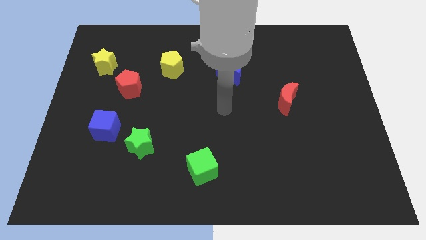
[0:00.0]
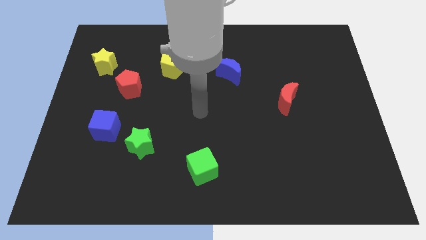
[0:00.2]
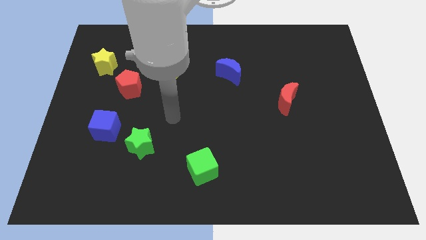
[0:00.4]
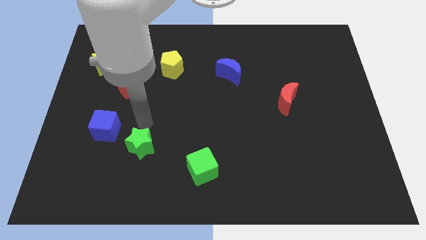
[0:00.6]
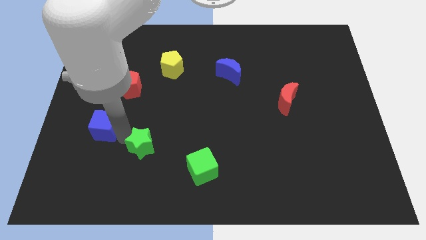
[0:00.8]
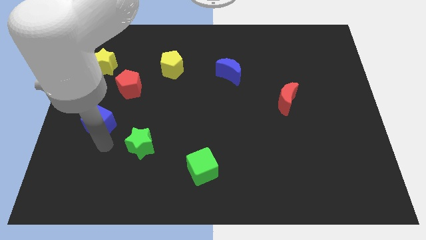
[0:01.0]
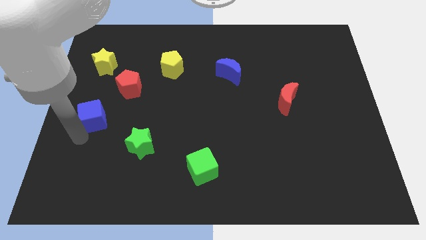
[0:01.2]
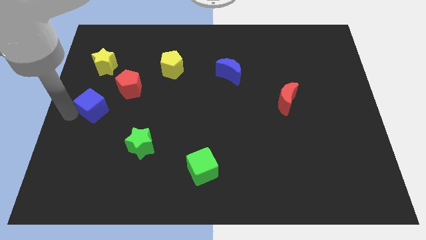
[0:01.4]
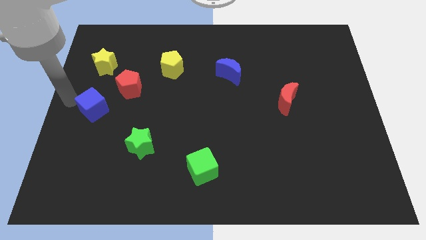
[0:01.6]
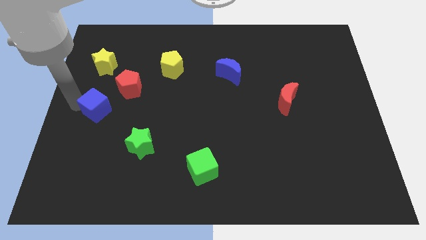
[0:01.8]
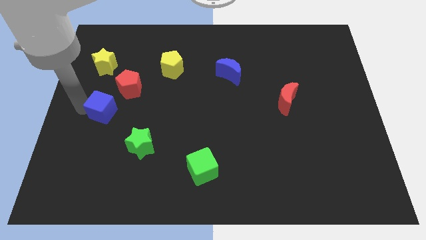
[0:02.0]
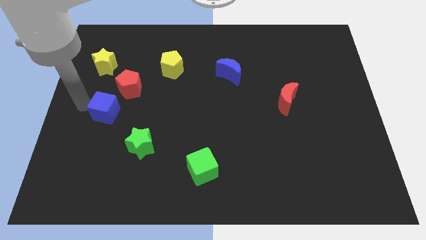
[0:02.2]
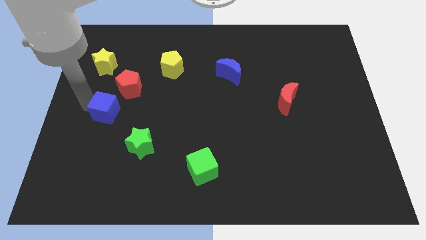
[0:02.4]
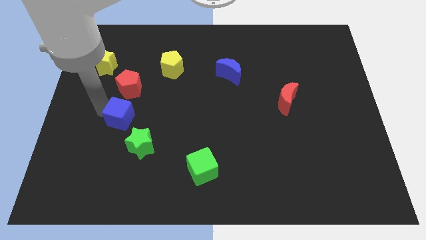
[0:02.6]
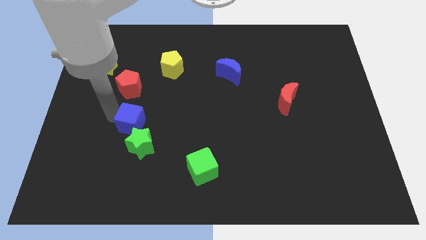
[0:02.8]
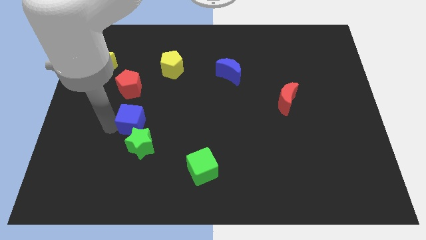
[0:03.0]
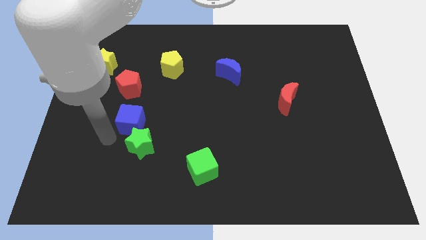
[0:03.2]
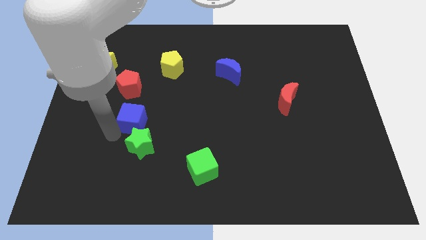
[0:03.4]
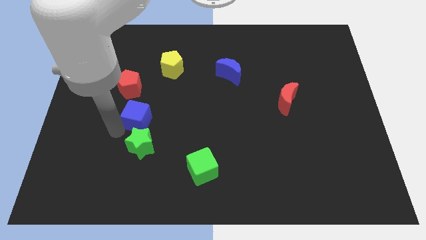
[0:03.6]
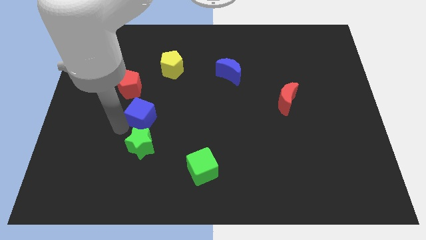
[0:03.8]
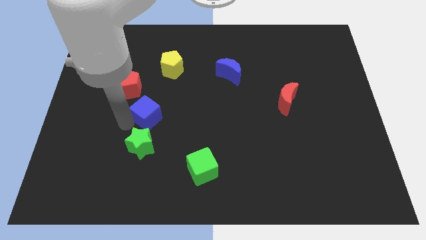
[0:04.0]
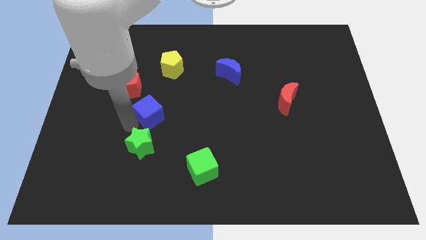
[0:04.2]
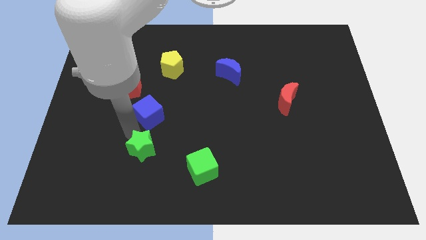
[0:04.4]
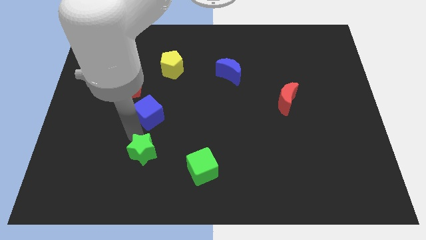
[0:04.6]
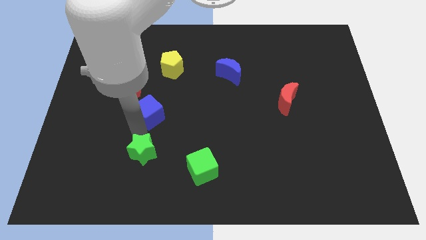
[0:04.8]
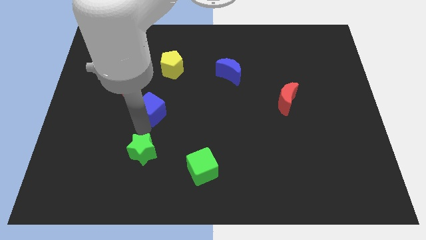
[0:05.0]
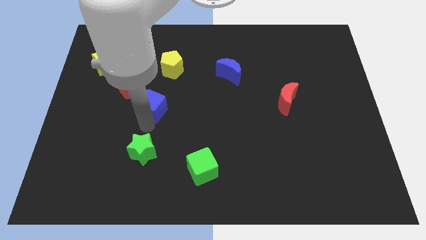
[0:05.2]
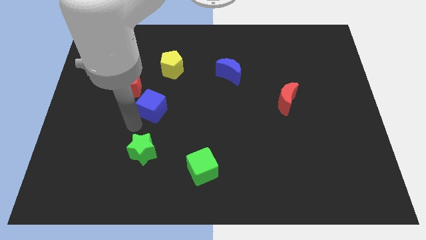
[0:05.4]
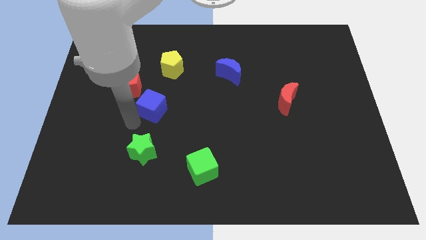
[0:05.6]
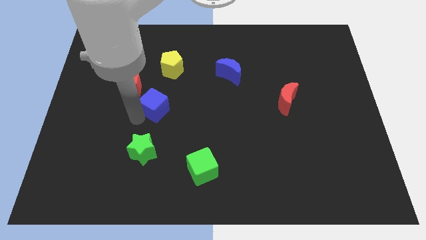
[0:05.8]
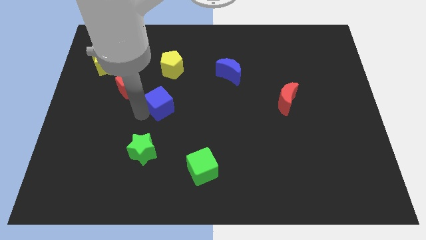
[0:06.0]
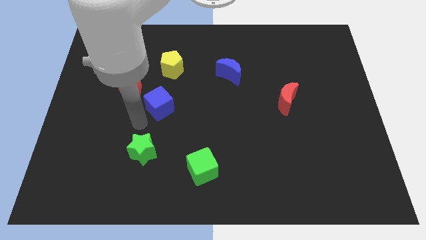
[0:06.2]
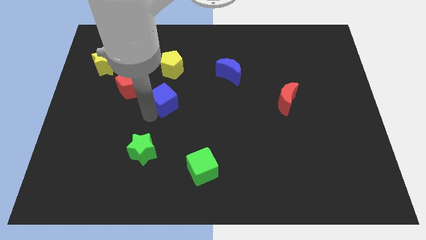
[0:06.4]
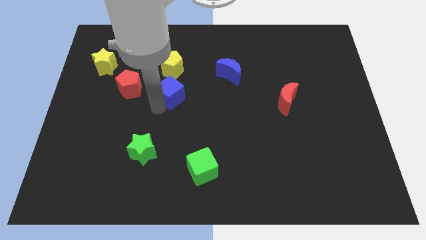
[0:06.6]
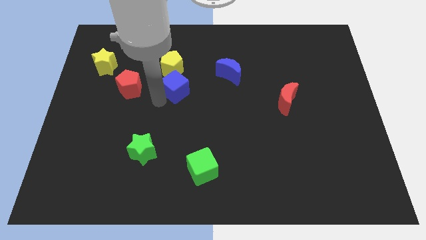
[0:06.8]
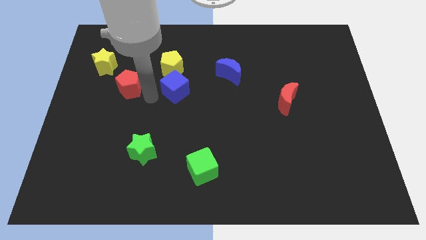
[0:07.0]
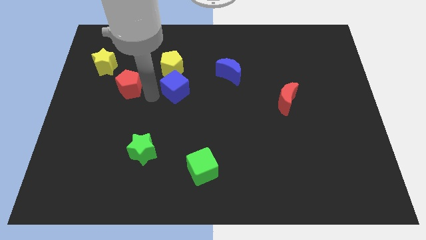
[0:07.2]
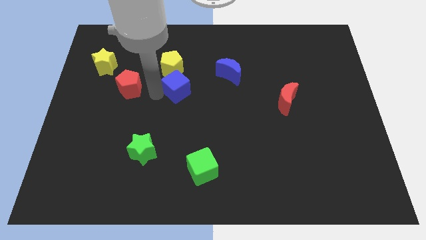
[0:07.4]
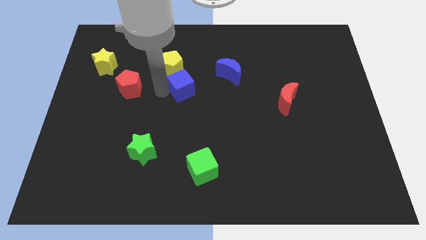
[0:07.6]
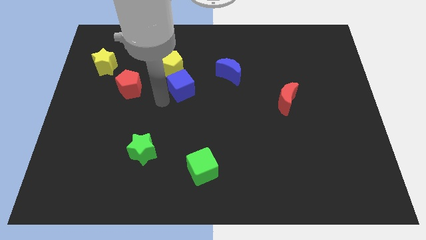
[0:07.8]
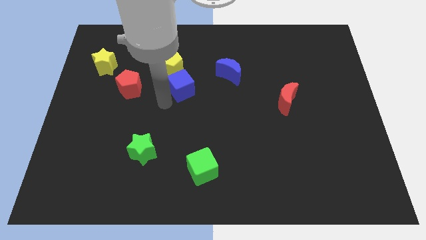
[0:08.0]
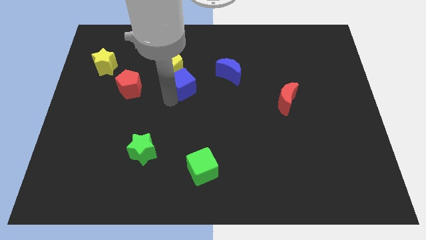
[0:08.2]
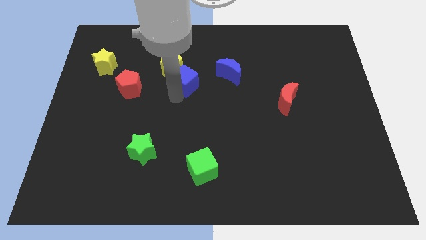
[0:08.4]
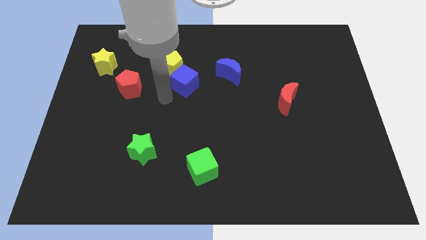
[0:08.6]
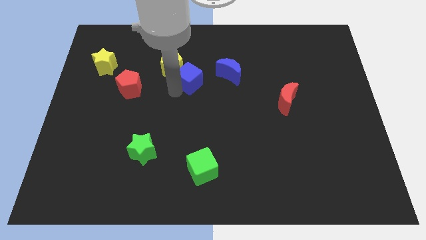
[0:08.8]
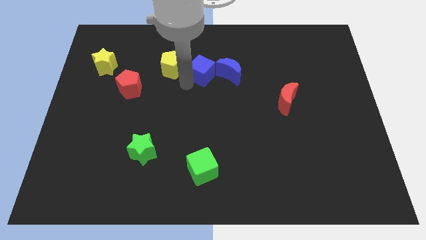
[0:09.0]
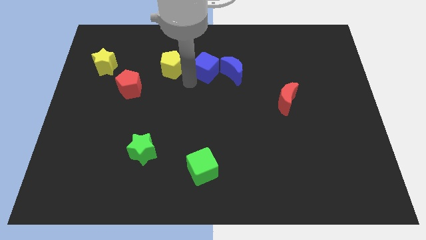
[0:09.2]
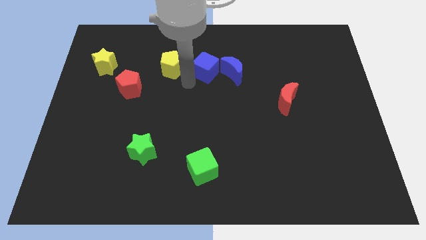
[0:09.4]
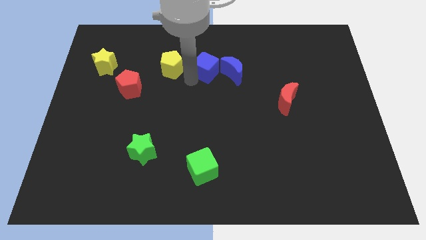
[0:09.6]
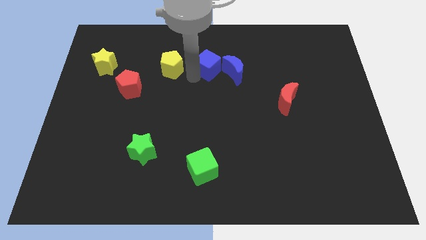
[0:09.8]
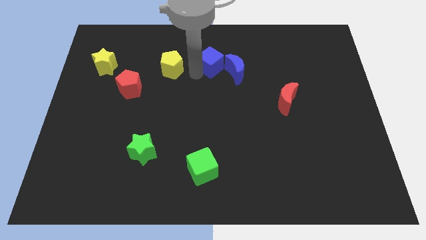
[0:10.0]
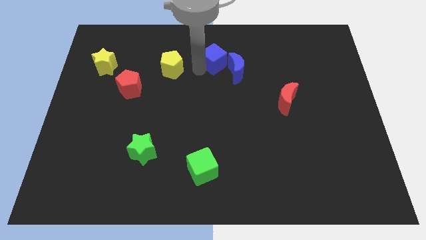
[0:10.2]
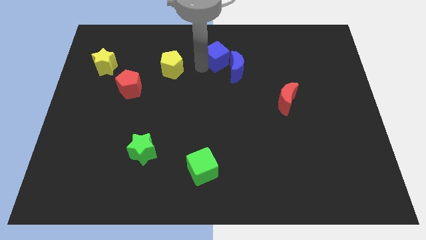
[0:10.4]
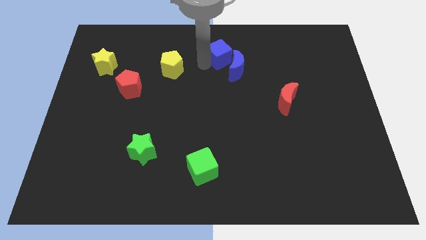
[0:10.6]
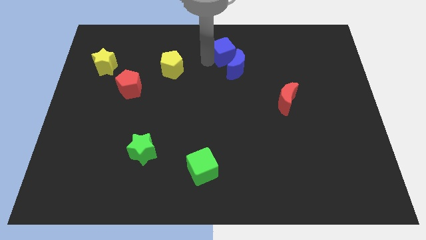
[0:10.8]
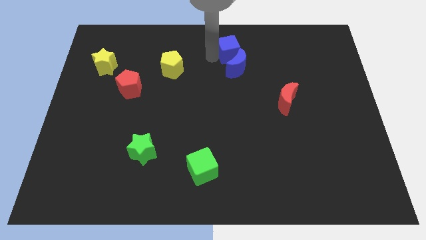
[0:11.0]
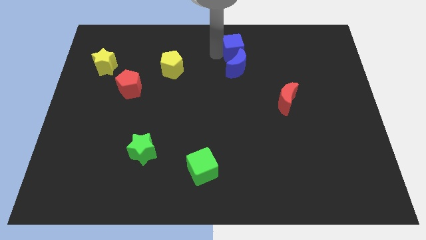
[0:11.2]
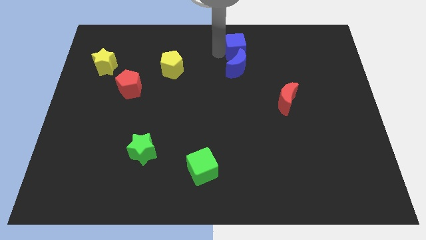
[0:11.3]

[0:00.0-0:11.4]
push the blue cube to the top right side of the blue moon

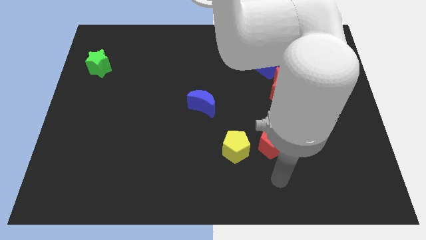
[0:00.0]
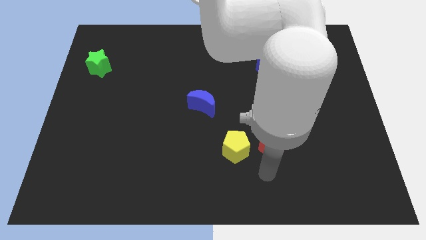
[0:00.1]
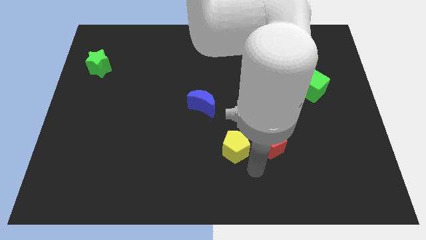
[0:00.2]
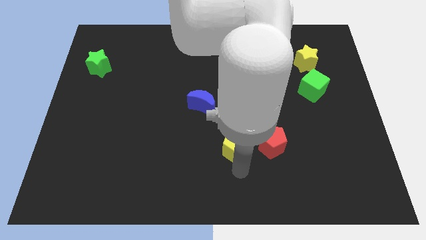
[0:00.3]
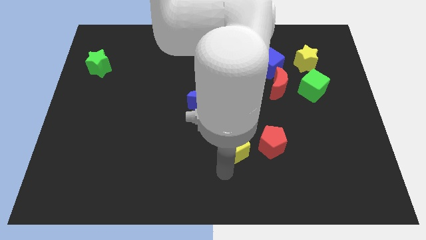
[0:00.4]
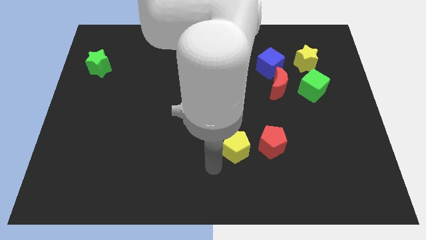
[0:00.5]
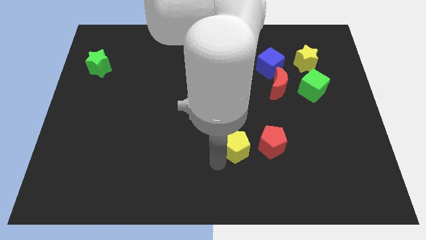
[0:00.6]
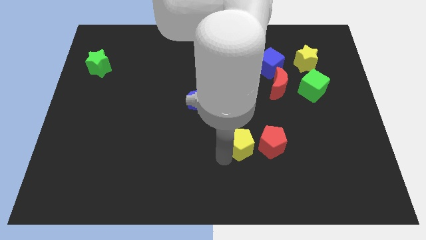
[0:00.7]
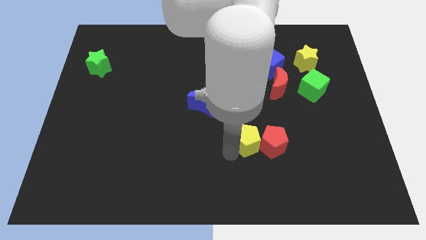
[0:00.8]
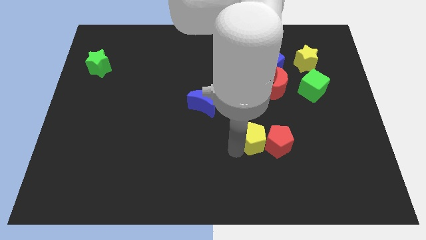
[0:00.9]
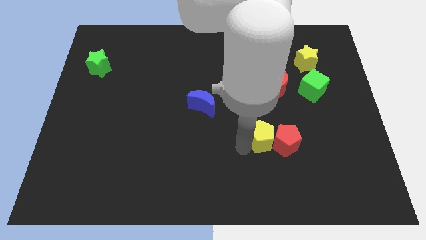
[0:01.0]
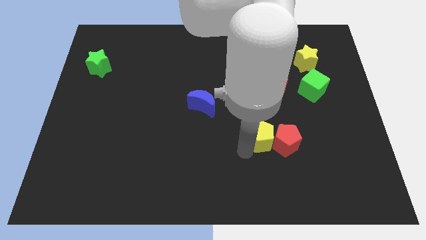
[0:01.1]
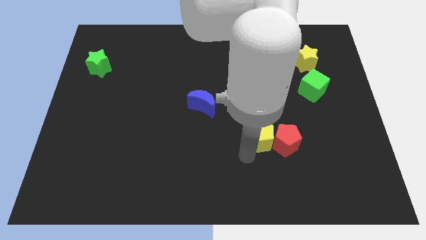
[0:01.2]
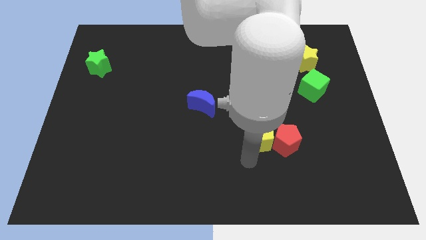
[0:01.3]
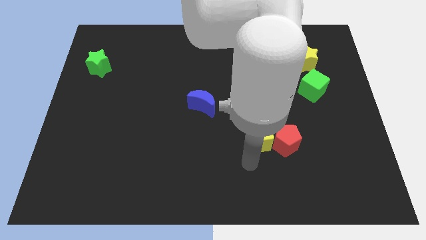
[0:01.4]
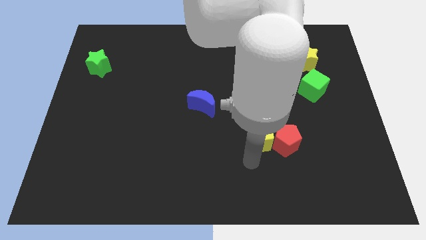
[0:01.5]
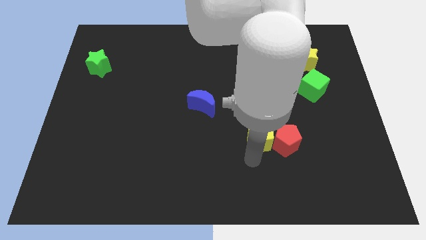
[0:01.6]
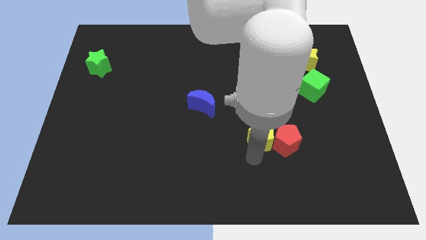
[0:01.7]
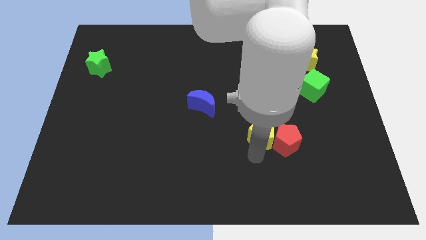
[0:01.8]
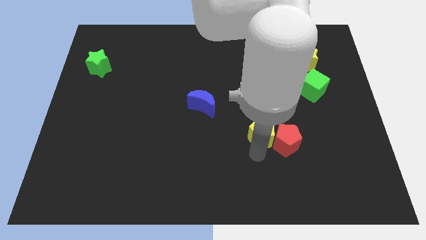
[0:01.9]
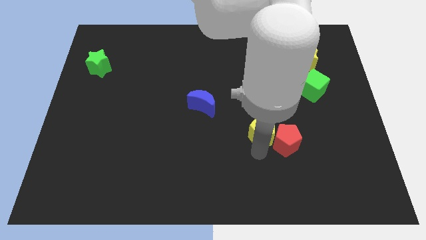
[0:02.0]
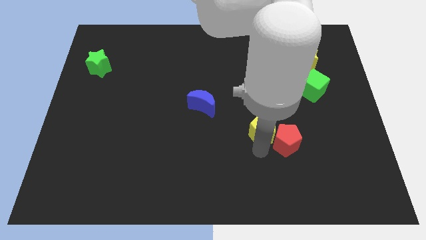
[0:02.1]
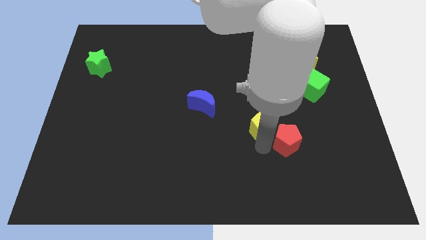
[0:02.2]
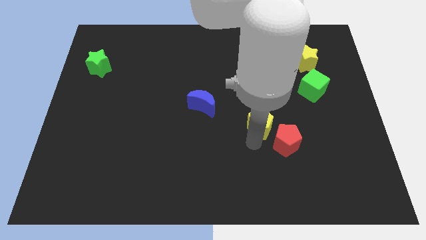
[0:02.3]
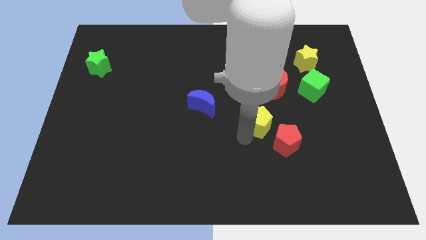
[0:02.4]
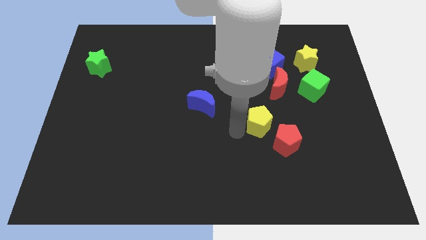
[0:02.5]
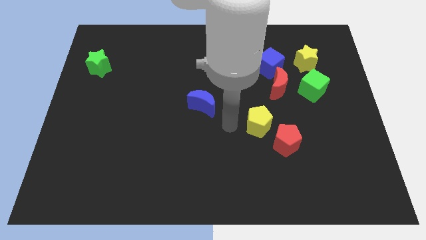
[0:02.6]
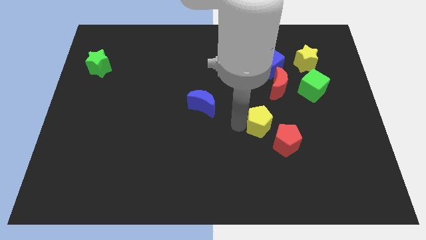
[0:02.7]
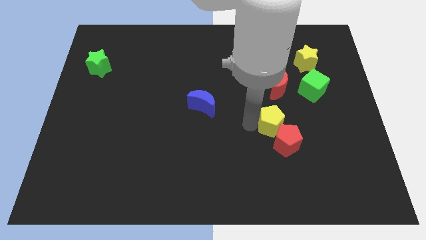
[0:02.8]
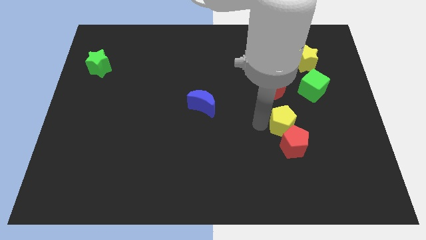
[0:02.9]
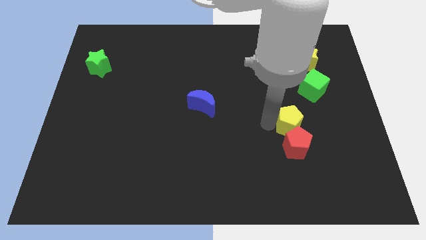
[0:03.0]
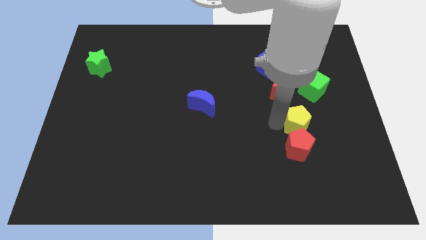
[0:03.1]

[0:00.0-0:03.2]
put the yellow pentagon to the top right side of the red pentagon
